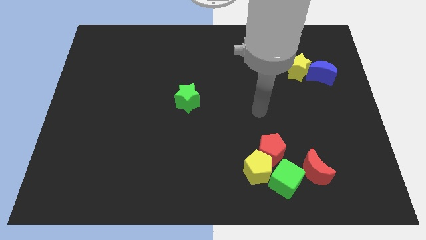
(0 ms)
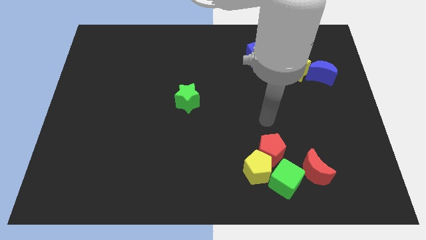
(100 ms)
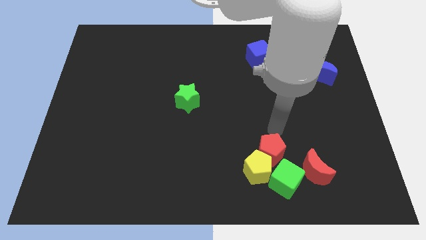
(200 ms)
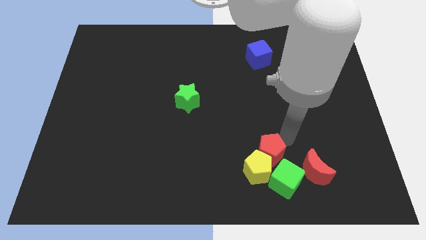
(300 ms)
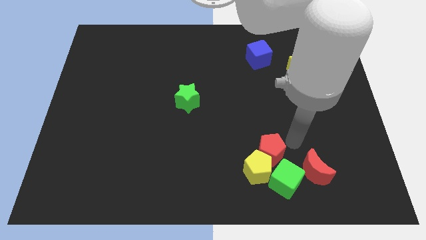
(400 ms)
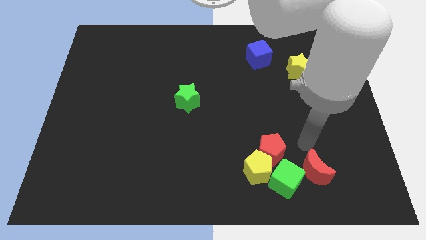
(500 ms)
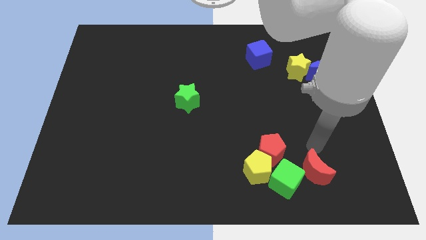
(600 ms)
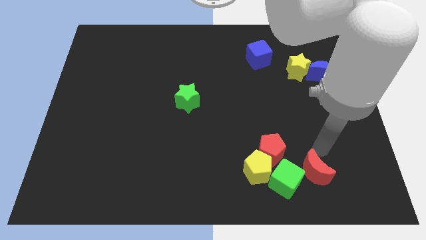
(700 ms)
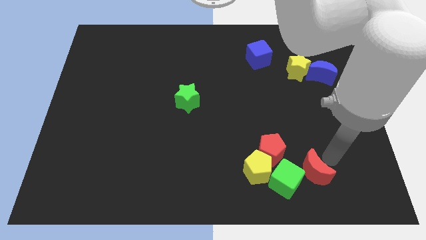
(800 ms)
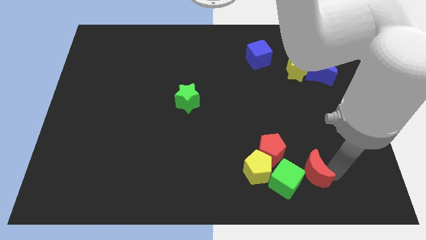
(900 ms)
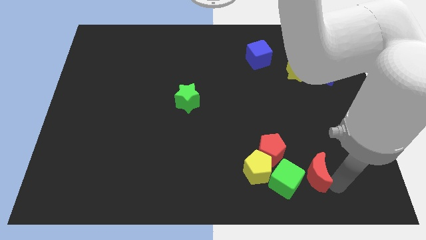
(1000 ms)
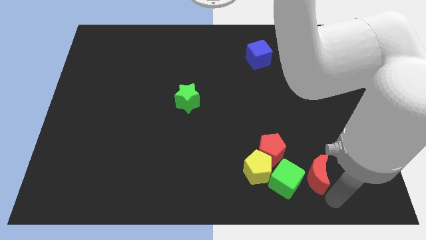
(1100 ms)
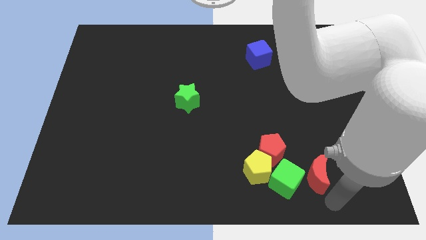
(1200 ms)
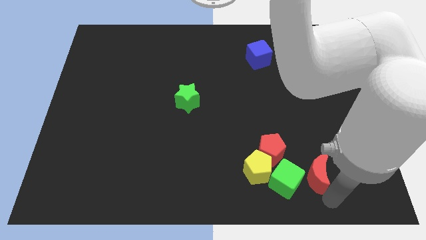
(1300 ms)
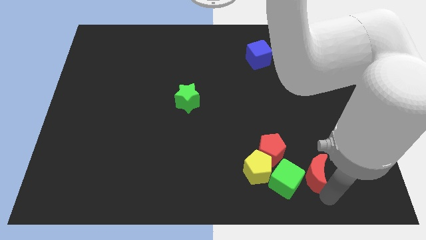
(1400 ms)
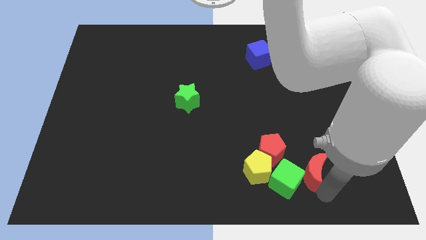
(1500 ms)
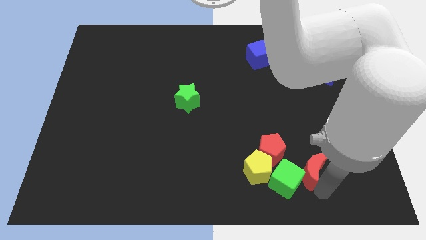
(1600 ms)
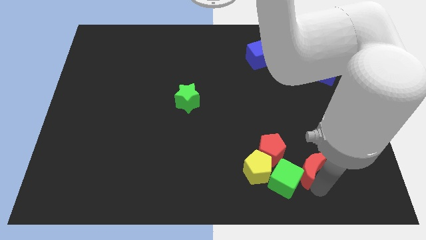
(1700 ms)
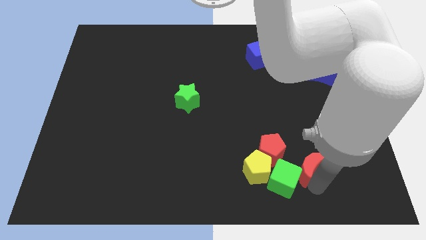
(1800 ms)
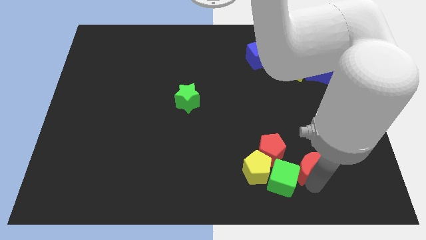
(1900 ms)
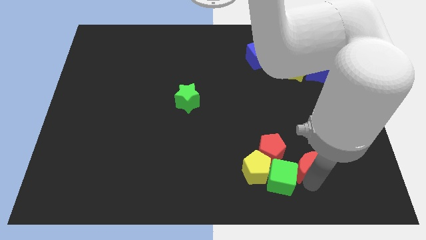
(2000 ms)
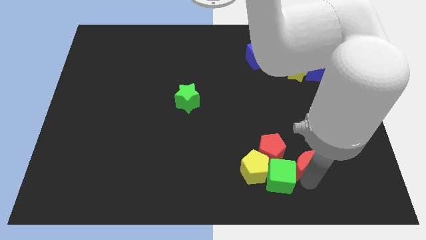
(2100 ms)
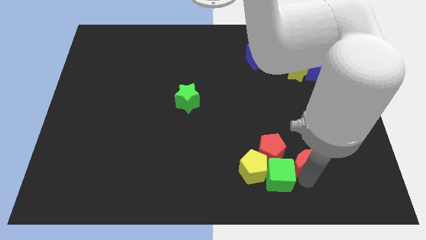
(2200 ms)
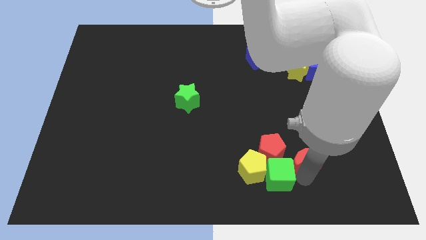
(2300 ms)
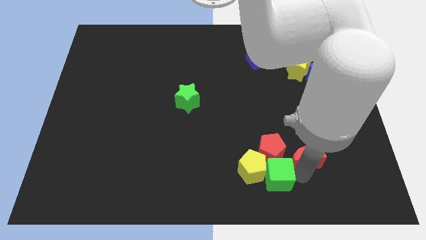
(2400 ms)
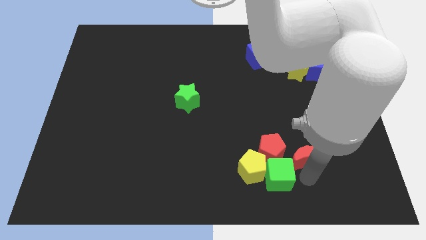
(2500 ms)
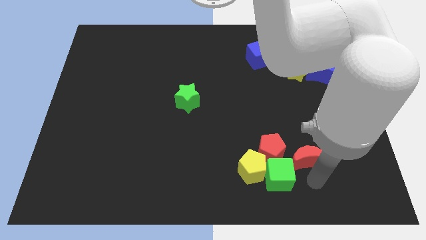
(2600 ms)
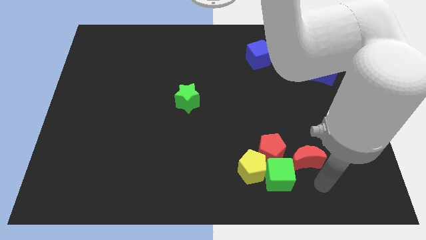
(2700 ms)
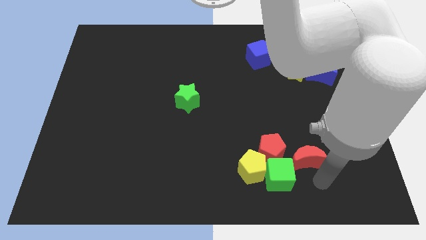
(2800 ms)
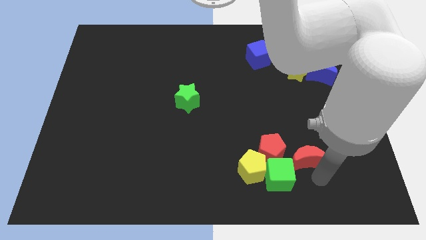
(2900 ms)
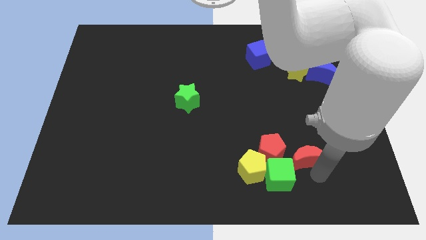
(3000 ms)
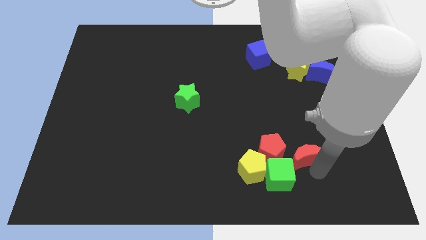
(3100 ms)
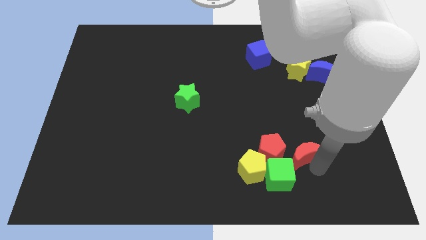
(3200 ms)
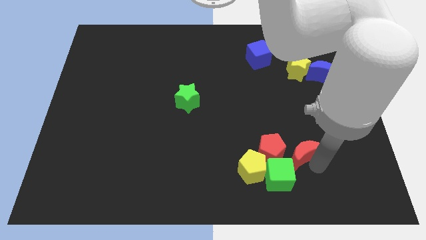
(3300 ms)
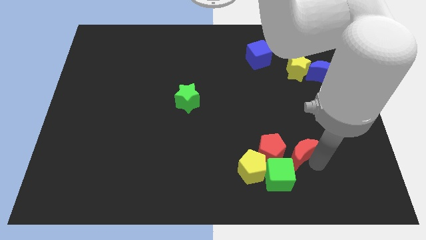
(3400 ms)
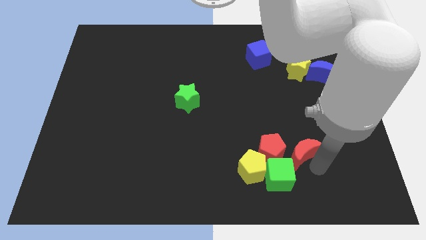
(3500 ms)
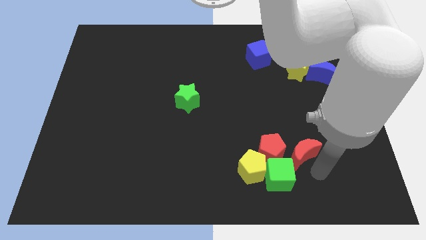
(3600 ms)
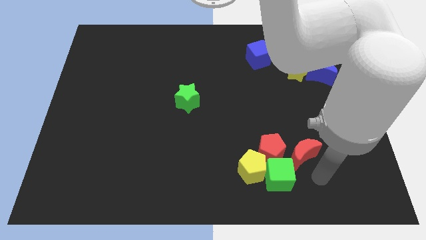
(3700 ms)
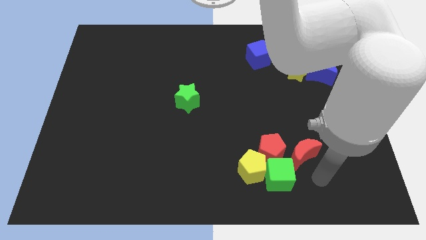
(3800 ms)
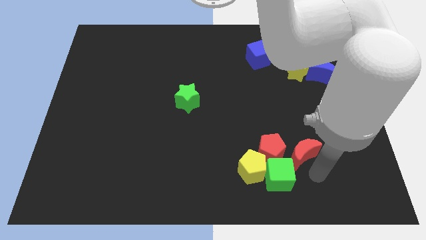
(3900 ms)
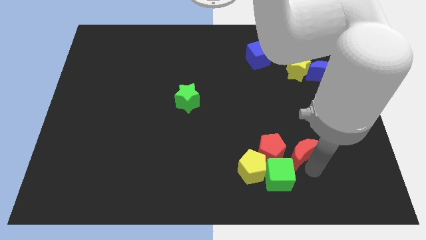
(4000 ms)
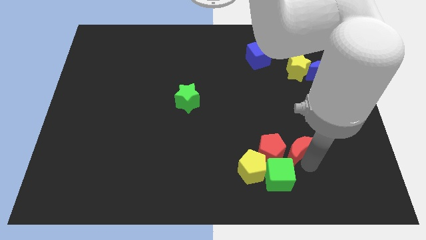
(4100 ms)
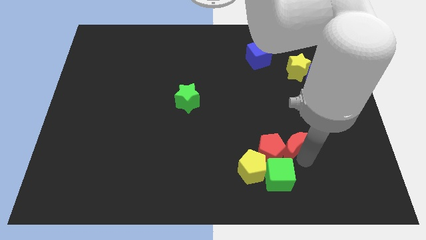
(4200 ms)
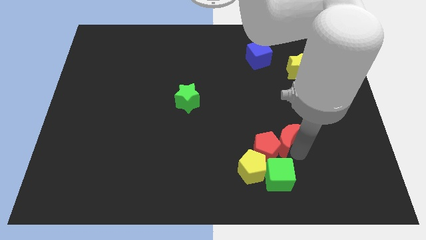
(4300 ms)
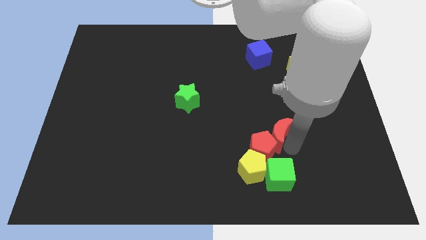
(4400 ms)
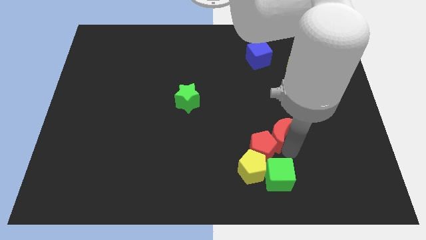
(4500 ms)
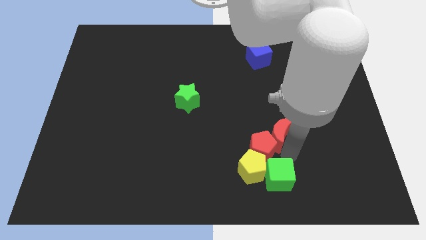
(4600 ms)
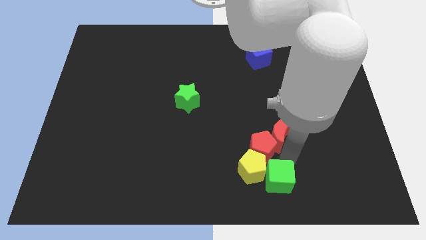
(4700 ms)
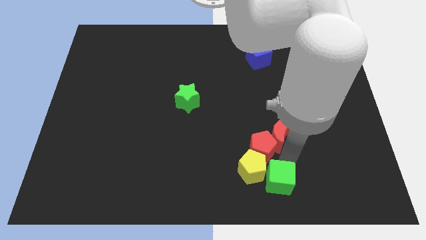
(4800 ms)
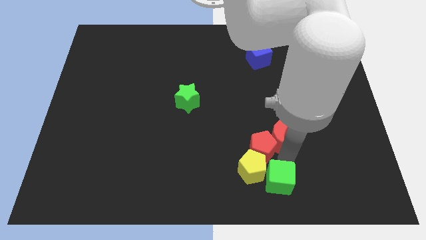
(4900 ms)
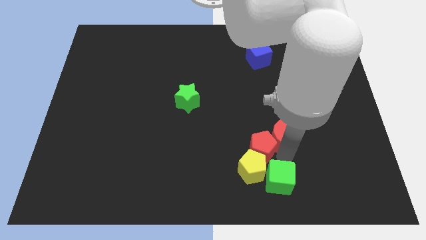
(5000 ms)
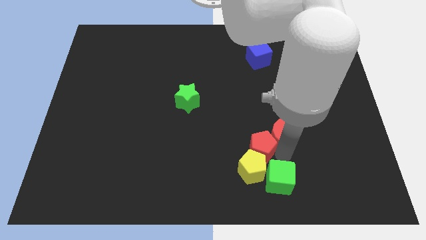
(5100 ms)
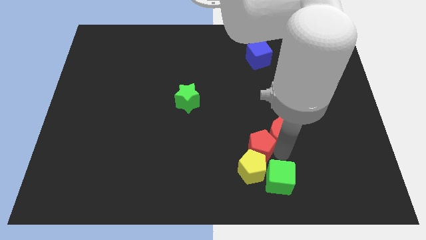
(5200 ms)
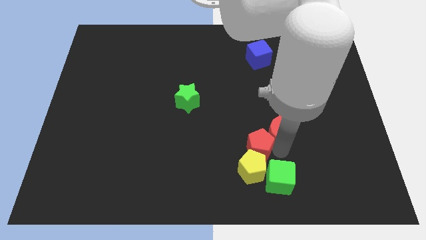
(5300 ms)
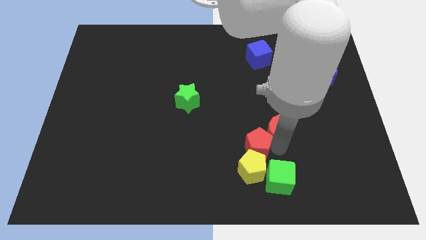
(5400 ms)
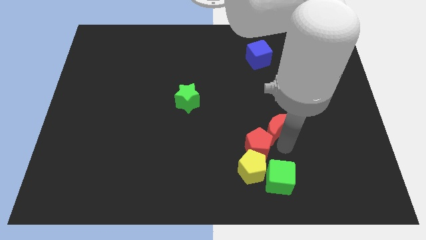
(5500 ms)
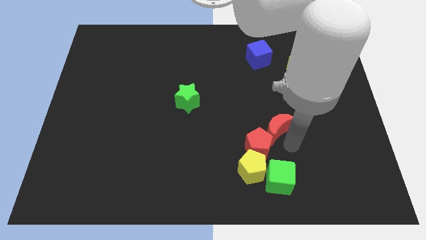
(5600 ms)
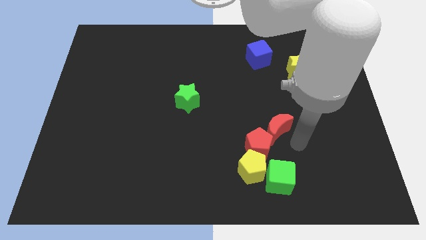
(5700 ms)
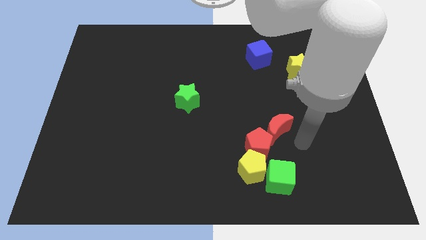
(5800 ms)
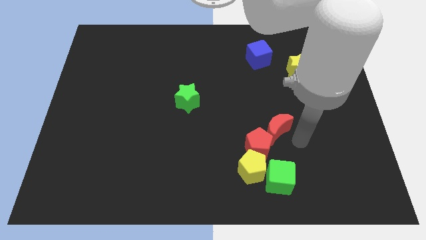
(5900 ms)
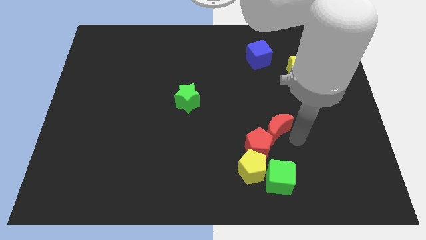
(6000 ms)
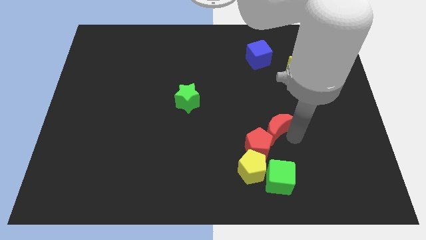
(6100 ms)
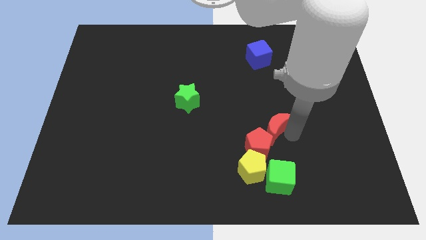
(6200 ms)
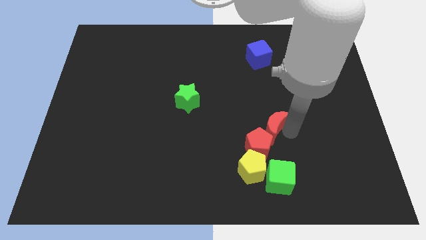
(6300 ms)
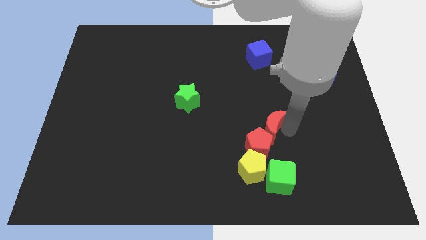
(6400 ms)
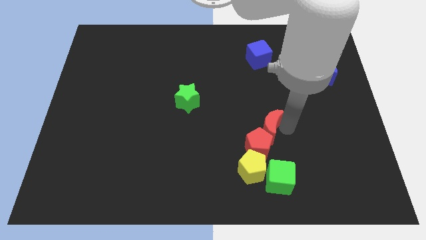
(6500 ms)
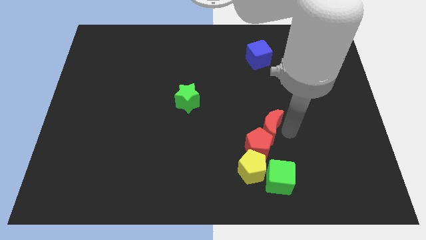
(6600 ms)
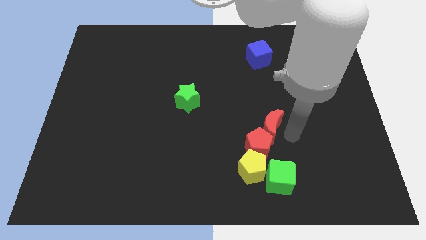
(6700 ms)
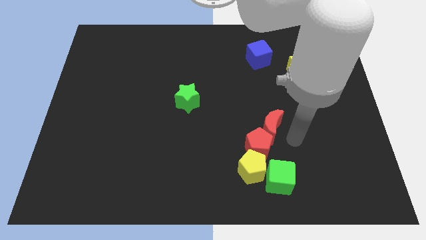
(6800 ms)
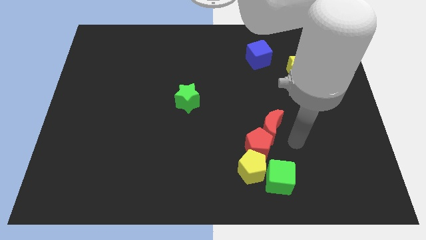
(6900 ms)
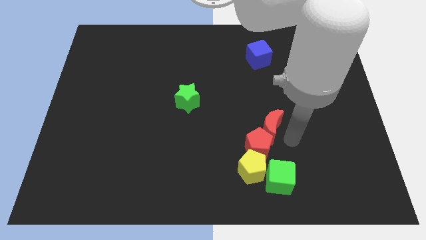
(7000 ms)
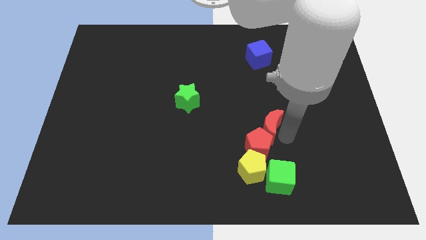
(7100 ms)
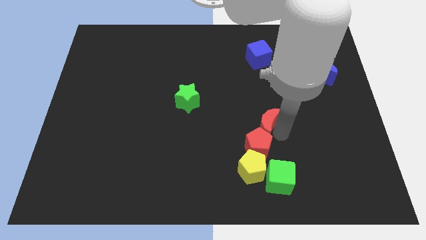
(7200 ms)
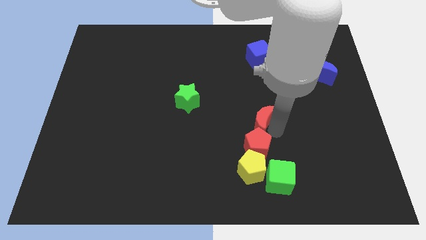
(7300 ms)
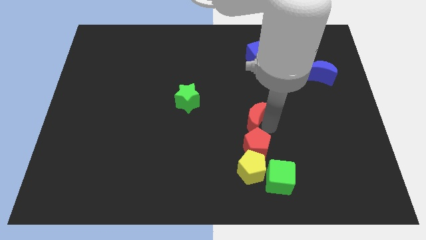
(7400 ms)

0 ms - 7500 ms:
put the red moon to the middle
